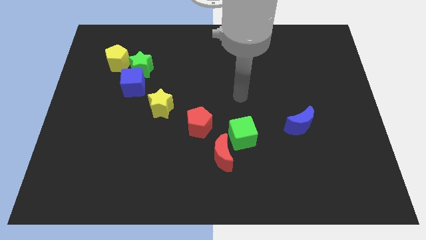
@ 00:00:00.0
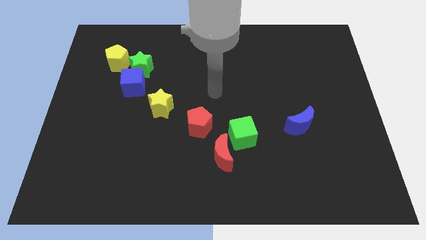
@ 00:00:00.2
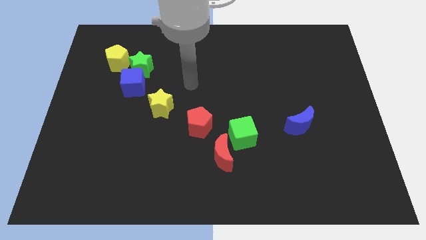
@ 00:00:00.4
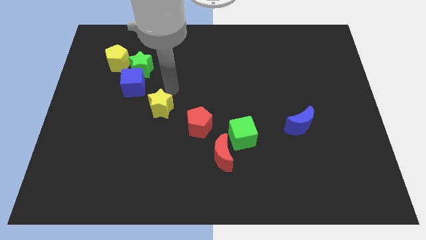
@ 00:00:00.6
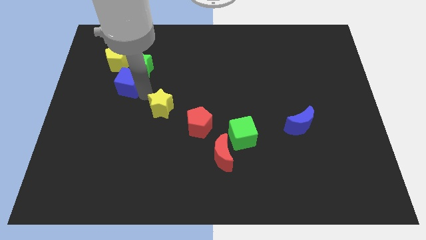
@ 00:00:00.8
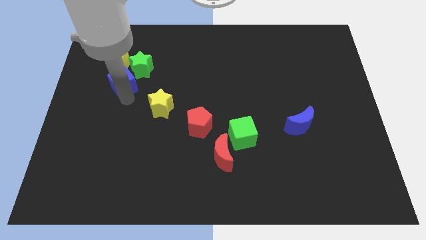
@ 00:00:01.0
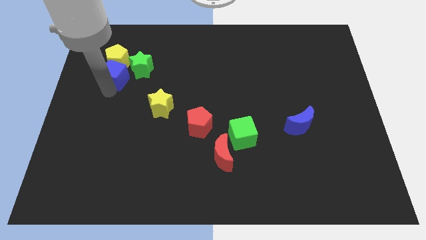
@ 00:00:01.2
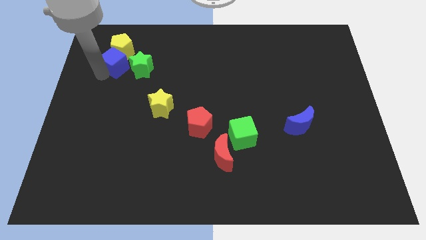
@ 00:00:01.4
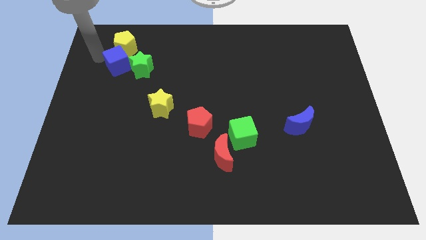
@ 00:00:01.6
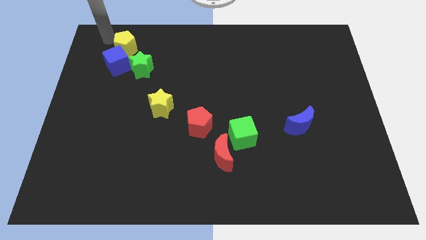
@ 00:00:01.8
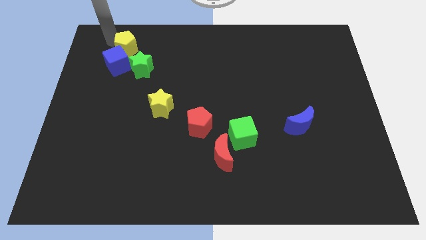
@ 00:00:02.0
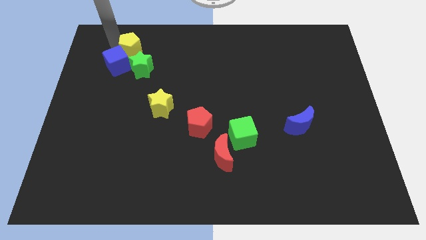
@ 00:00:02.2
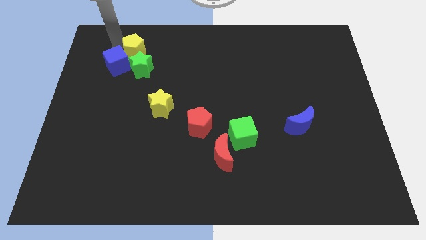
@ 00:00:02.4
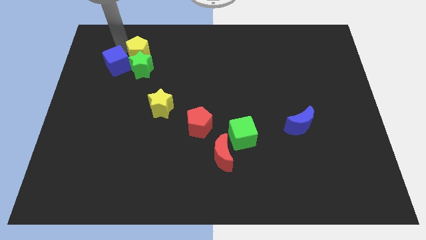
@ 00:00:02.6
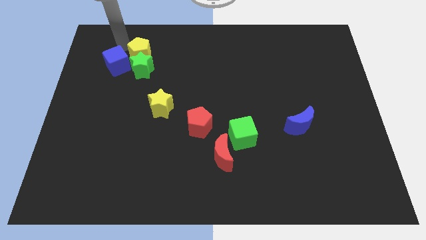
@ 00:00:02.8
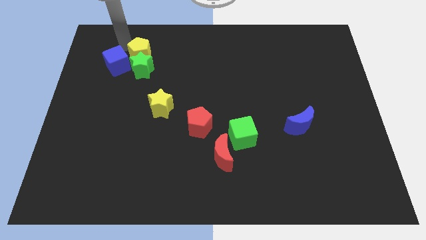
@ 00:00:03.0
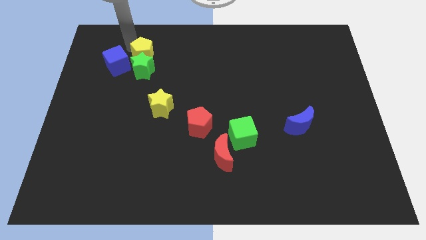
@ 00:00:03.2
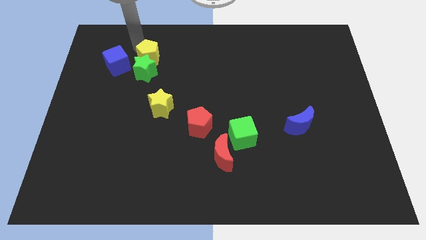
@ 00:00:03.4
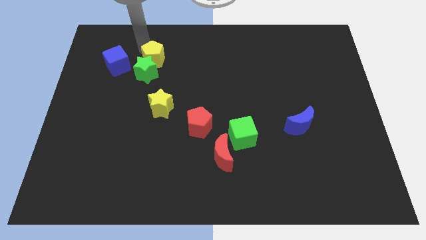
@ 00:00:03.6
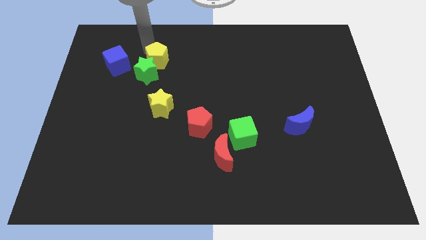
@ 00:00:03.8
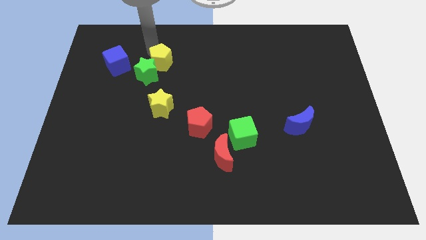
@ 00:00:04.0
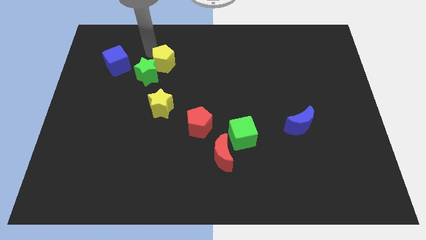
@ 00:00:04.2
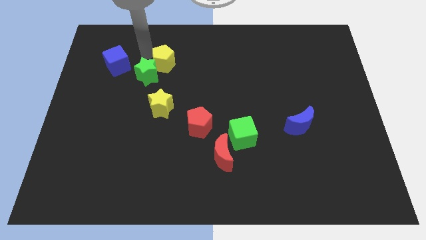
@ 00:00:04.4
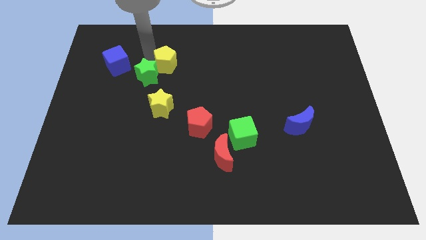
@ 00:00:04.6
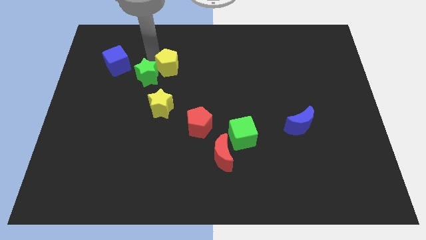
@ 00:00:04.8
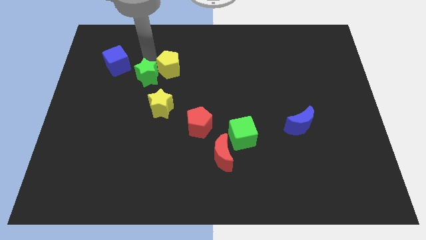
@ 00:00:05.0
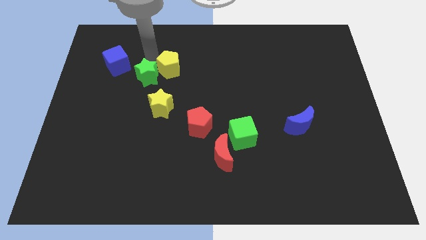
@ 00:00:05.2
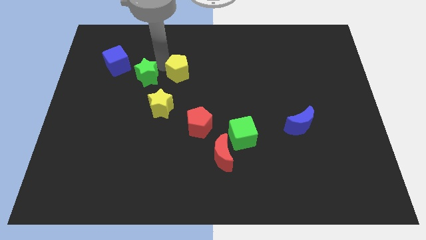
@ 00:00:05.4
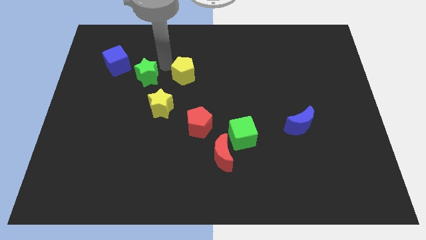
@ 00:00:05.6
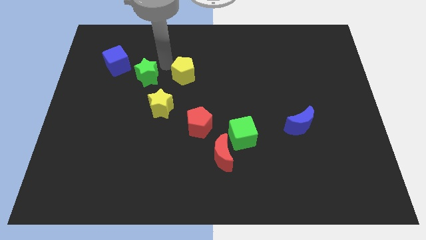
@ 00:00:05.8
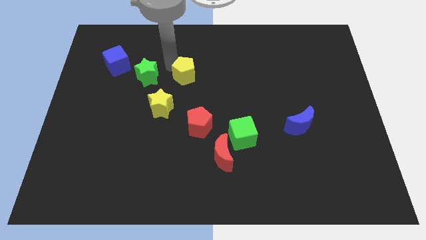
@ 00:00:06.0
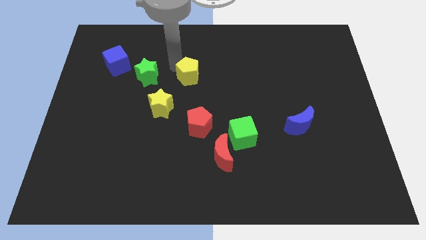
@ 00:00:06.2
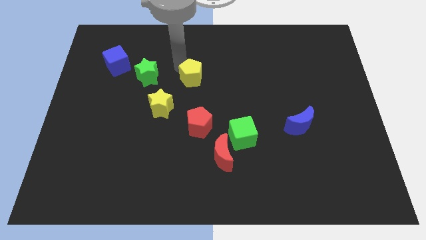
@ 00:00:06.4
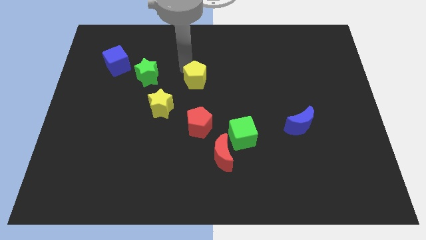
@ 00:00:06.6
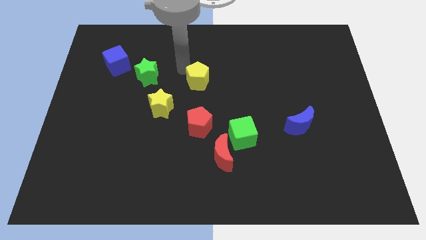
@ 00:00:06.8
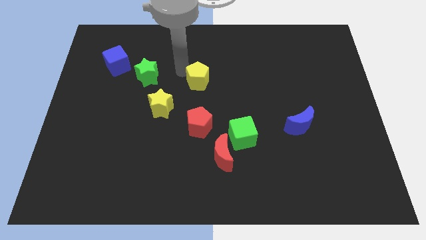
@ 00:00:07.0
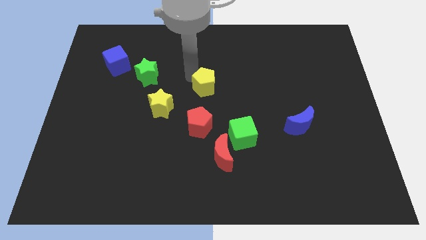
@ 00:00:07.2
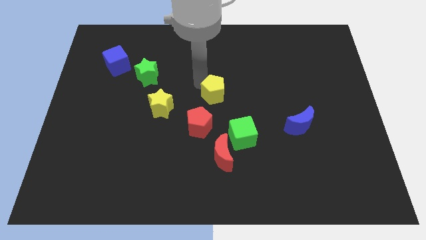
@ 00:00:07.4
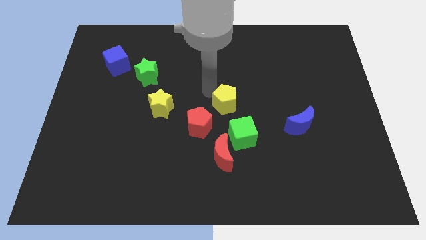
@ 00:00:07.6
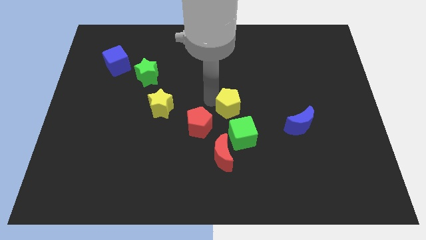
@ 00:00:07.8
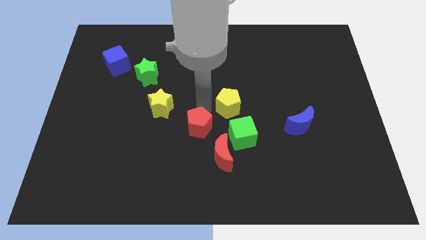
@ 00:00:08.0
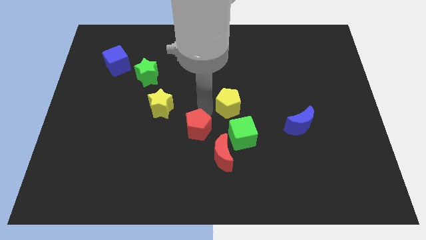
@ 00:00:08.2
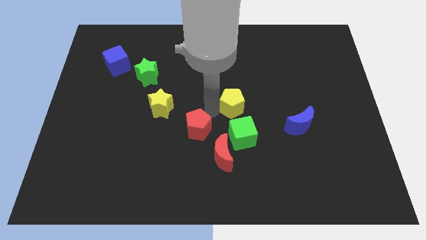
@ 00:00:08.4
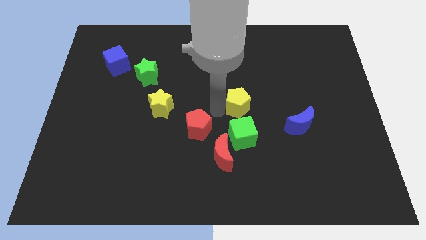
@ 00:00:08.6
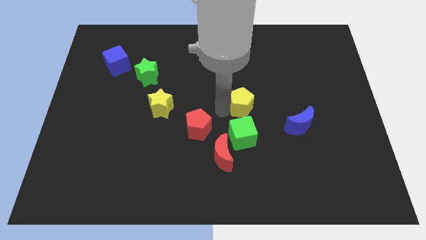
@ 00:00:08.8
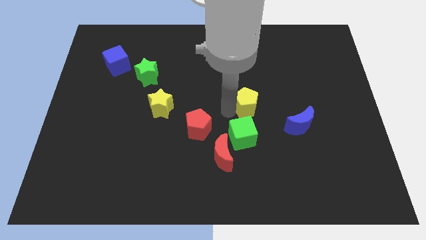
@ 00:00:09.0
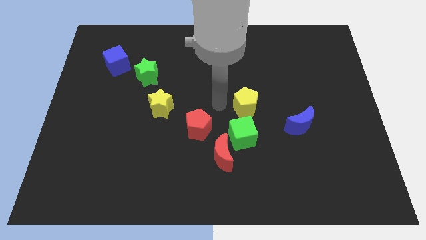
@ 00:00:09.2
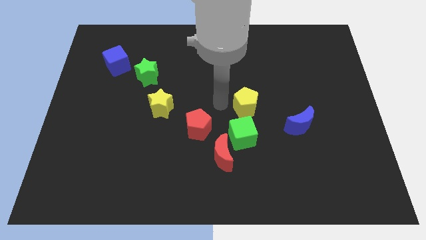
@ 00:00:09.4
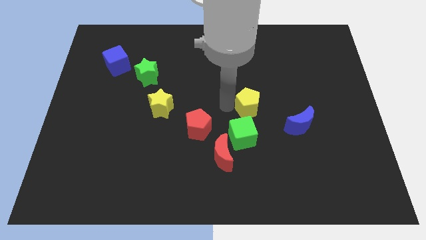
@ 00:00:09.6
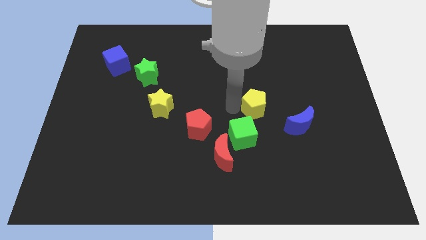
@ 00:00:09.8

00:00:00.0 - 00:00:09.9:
push the yellow pentagon to the top left side of the blue moon

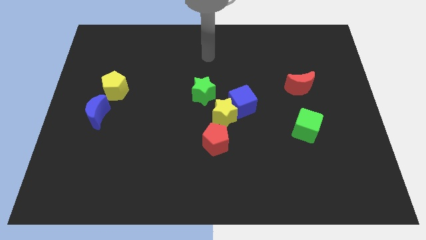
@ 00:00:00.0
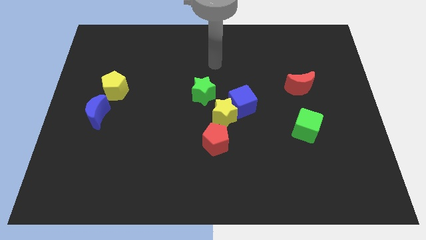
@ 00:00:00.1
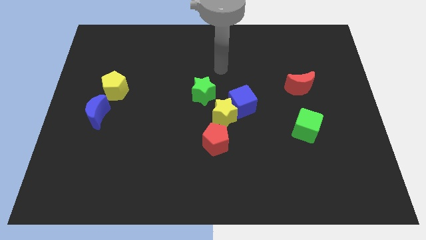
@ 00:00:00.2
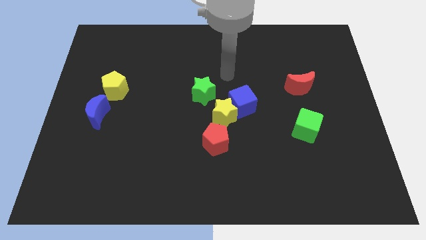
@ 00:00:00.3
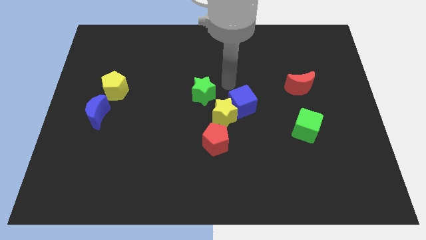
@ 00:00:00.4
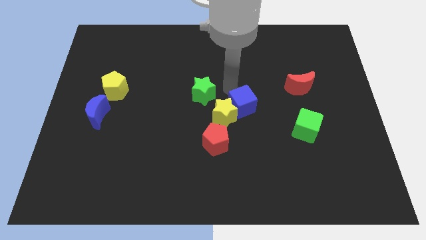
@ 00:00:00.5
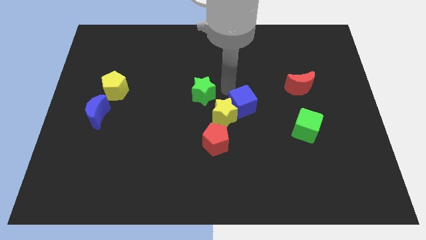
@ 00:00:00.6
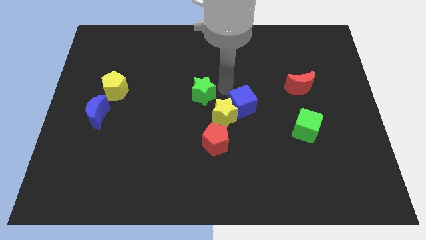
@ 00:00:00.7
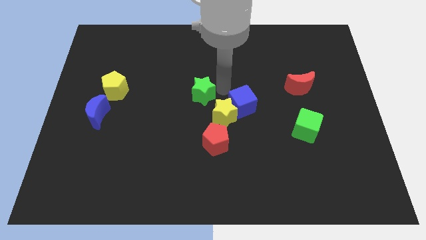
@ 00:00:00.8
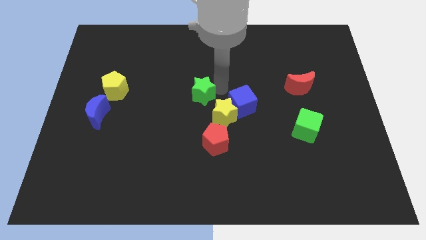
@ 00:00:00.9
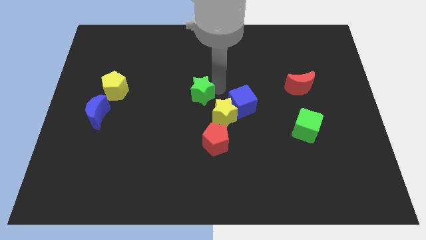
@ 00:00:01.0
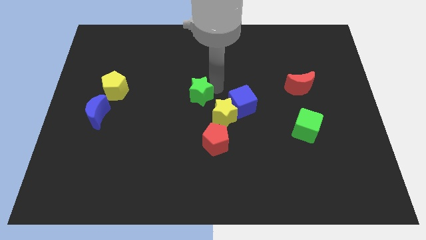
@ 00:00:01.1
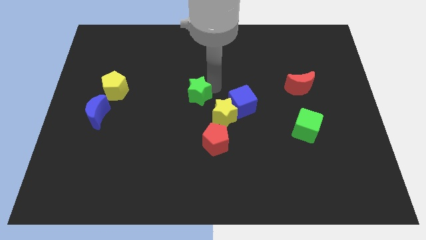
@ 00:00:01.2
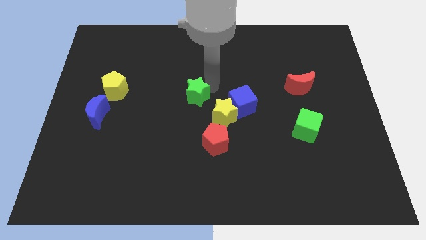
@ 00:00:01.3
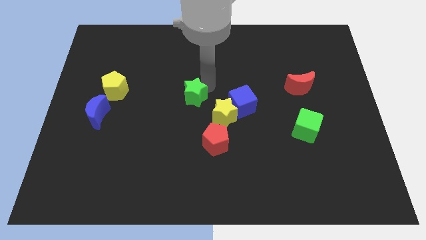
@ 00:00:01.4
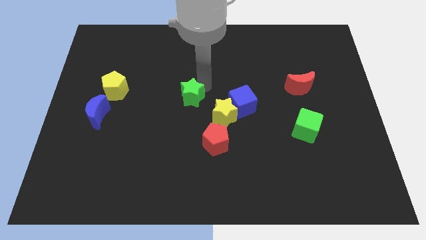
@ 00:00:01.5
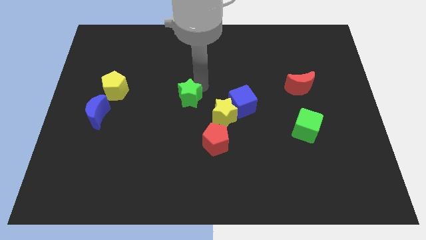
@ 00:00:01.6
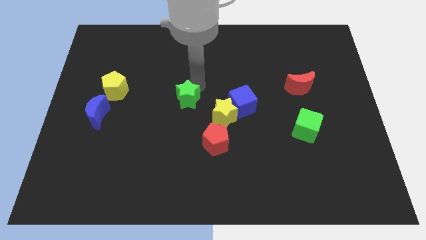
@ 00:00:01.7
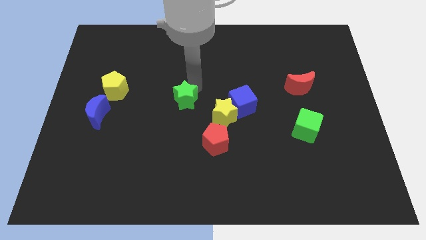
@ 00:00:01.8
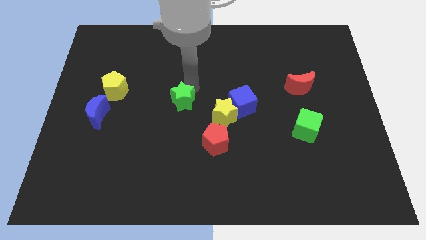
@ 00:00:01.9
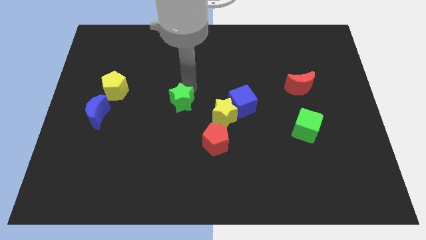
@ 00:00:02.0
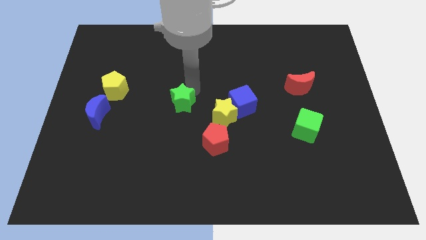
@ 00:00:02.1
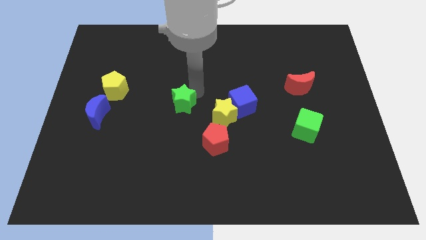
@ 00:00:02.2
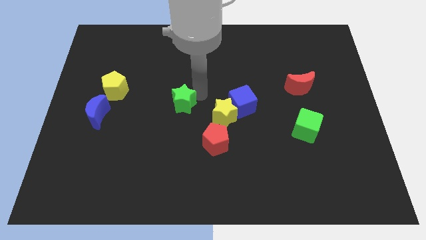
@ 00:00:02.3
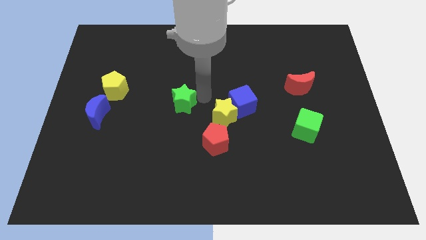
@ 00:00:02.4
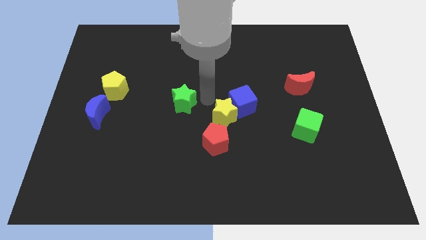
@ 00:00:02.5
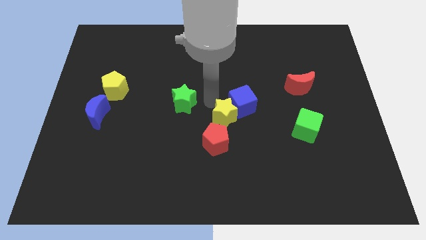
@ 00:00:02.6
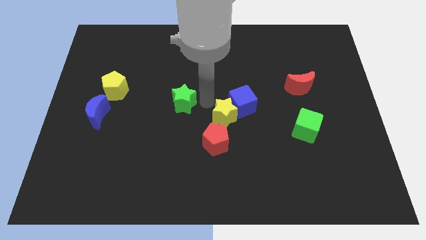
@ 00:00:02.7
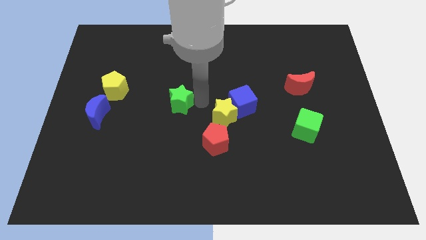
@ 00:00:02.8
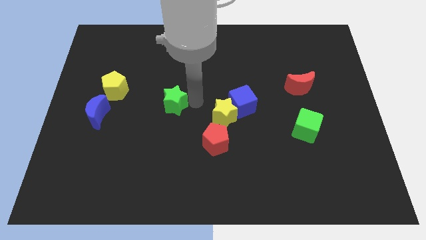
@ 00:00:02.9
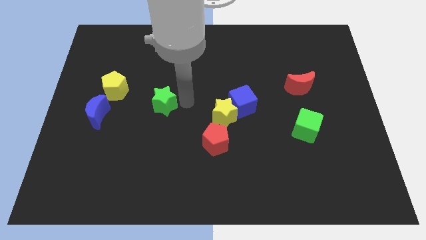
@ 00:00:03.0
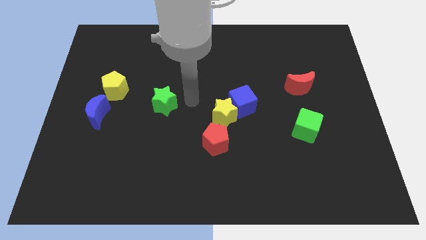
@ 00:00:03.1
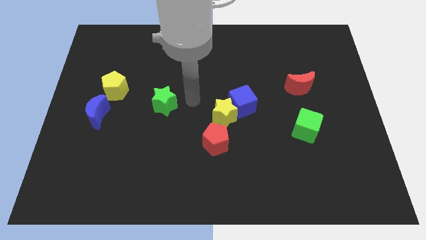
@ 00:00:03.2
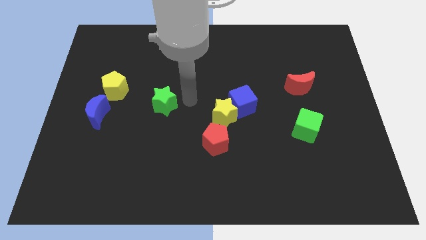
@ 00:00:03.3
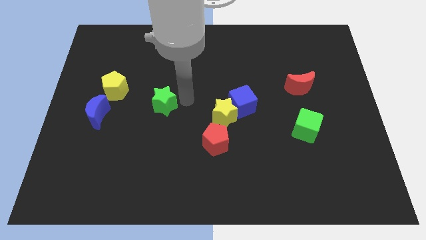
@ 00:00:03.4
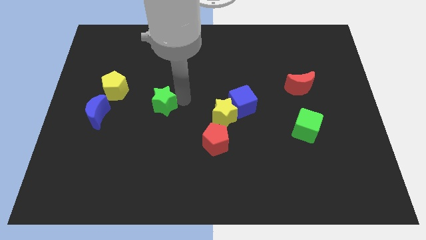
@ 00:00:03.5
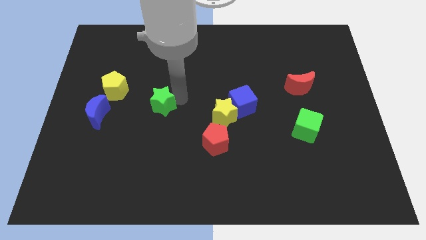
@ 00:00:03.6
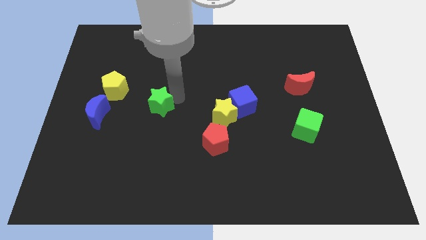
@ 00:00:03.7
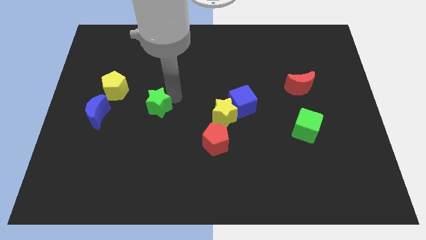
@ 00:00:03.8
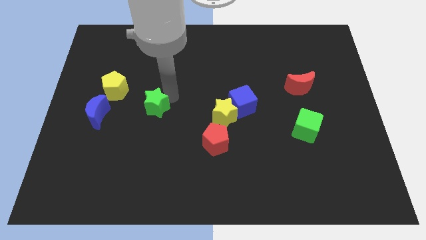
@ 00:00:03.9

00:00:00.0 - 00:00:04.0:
put the green star diagonally down and to the right of the yellow pentagon
